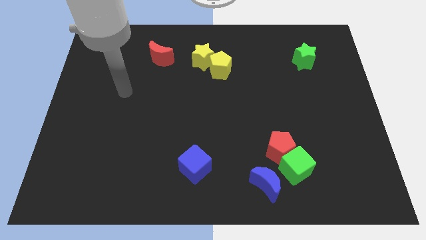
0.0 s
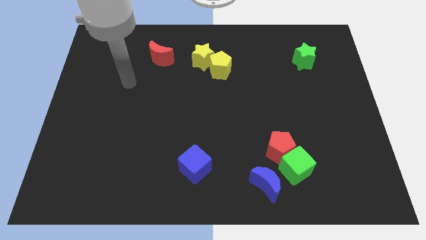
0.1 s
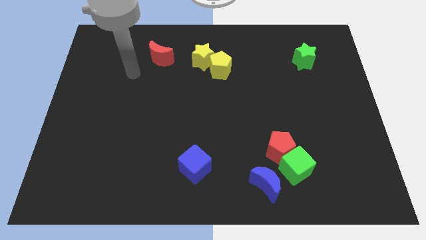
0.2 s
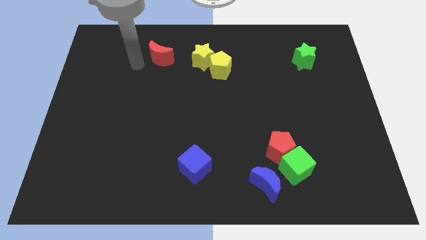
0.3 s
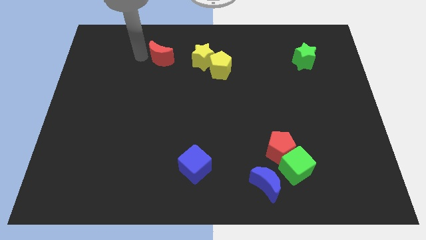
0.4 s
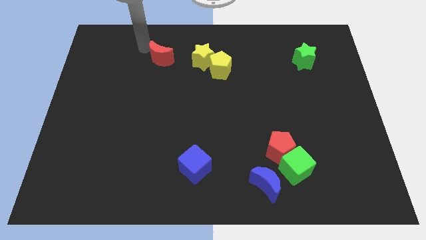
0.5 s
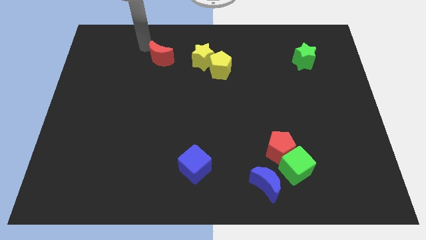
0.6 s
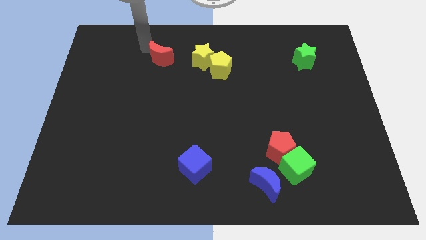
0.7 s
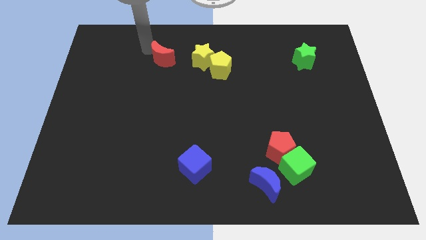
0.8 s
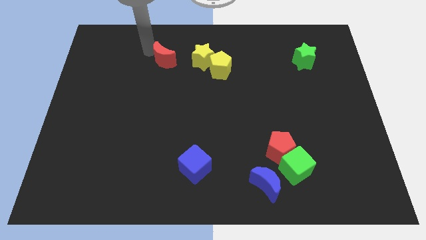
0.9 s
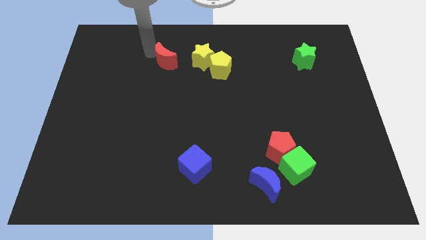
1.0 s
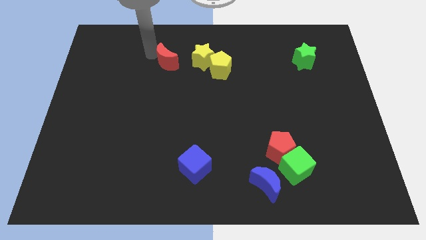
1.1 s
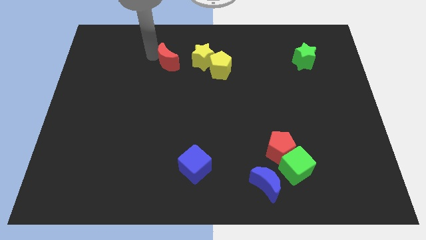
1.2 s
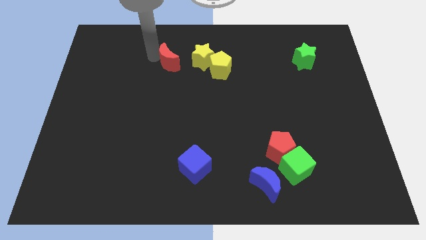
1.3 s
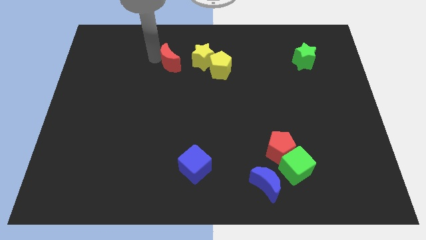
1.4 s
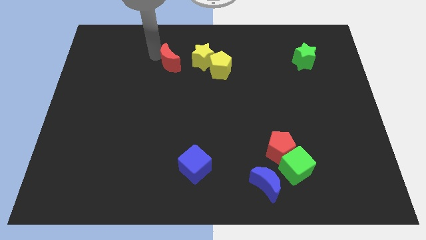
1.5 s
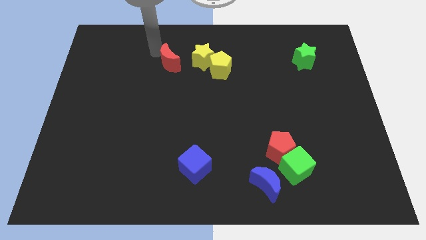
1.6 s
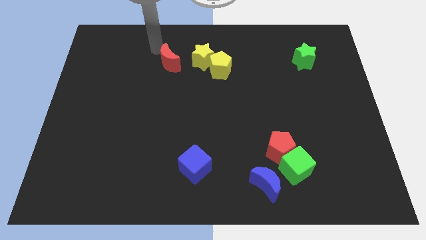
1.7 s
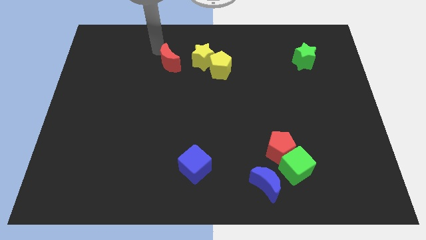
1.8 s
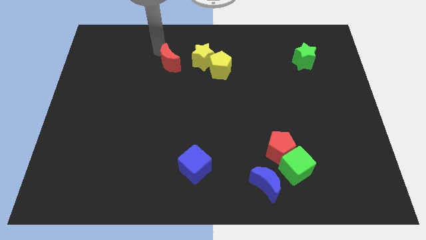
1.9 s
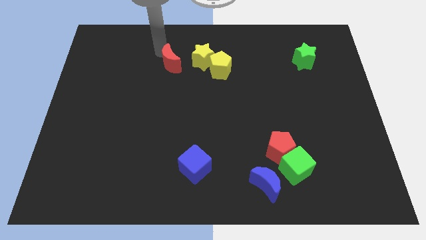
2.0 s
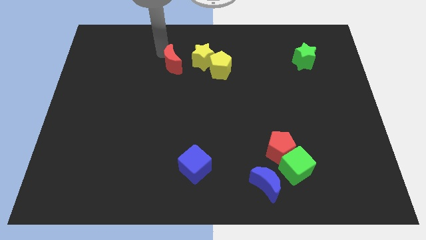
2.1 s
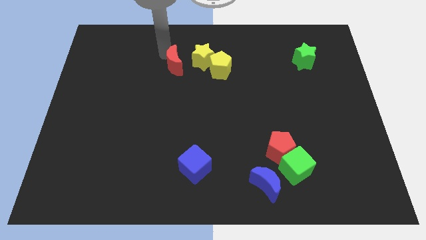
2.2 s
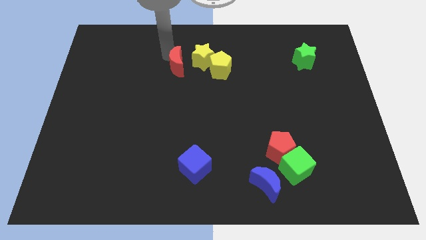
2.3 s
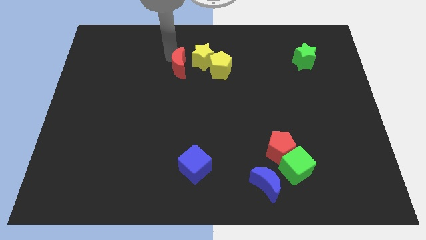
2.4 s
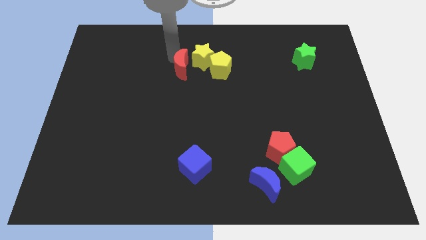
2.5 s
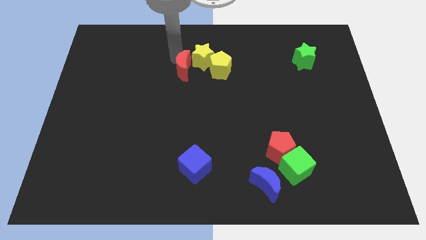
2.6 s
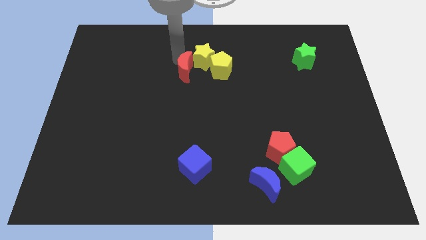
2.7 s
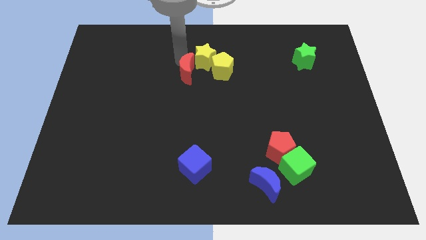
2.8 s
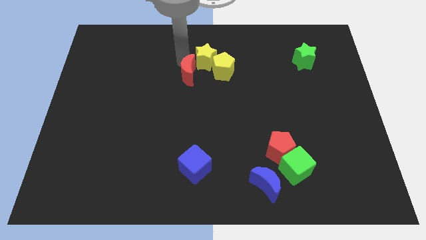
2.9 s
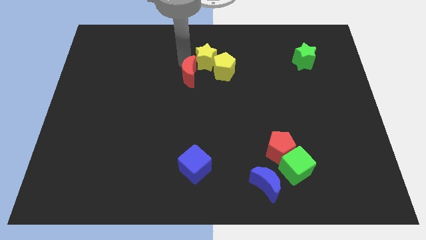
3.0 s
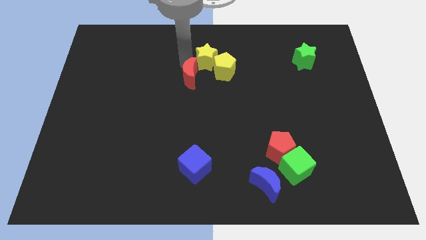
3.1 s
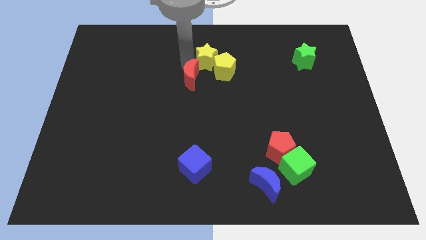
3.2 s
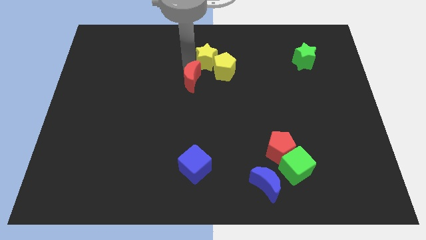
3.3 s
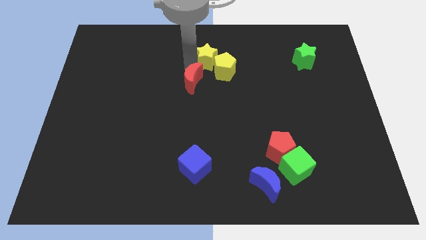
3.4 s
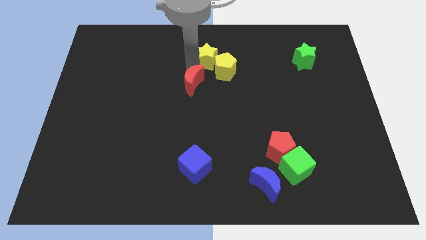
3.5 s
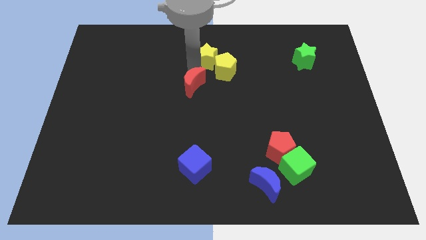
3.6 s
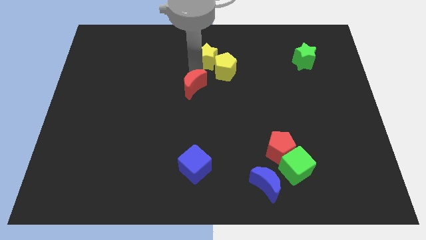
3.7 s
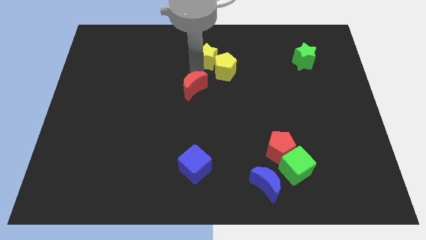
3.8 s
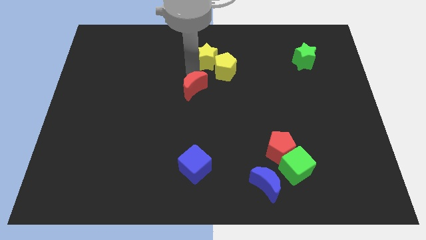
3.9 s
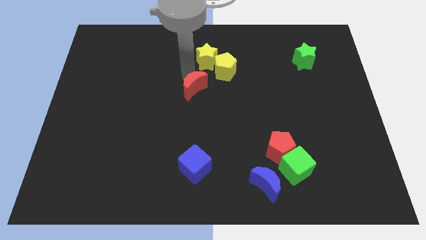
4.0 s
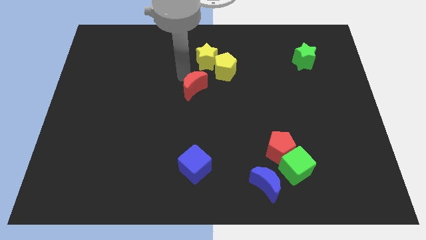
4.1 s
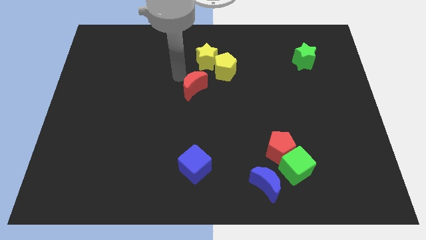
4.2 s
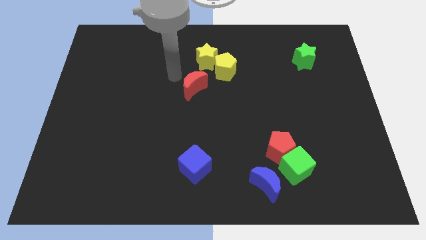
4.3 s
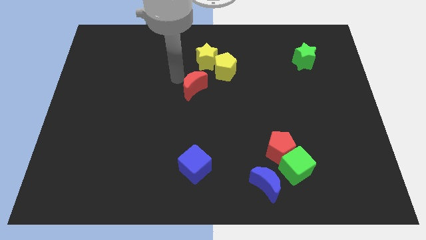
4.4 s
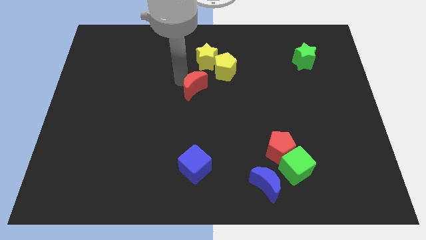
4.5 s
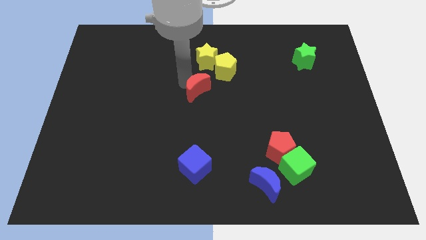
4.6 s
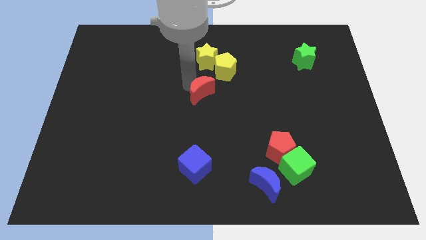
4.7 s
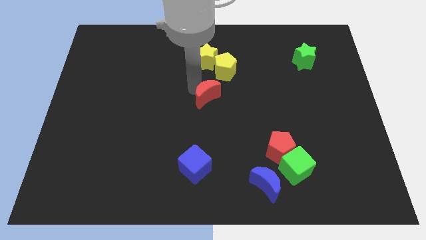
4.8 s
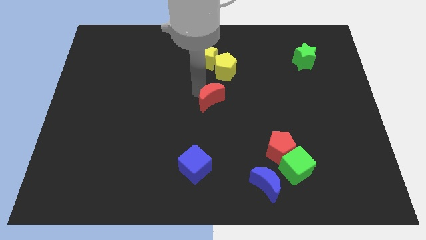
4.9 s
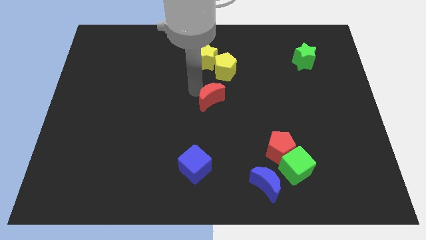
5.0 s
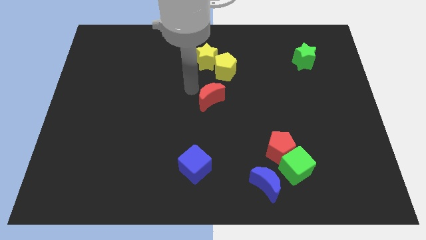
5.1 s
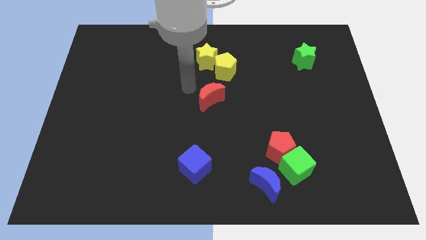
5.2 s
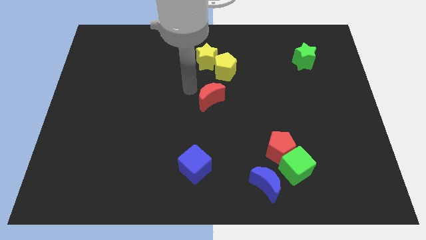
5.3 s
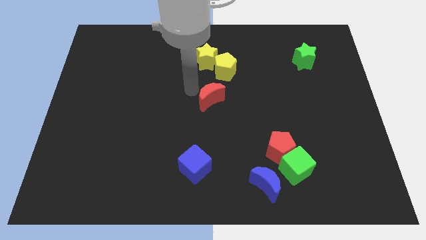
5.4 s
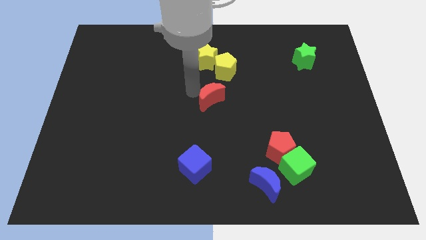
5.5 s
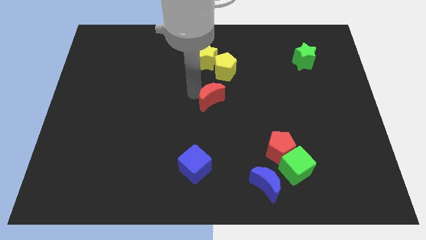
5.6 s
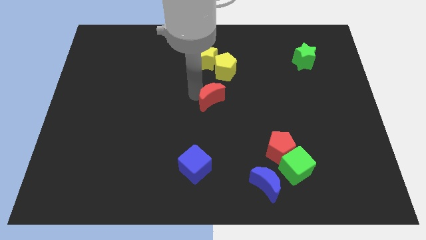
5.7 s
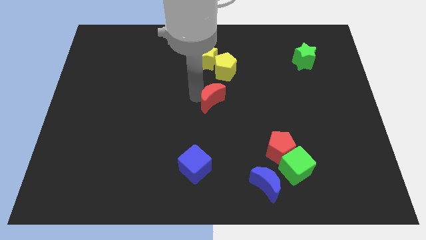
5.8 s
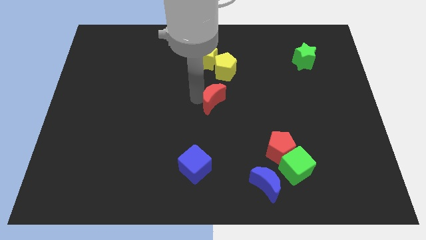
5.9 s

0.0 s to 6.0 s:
move the red moon downwards and right diagonally

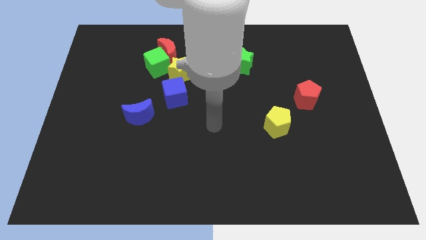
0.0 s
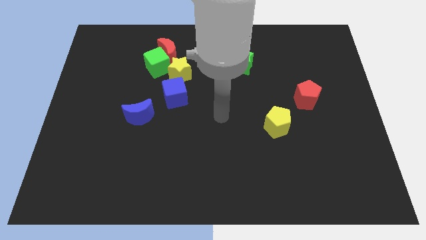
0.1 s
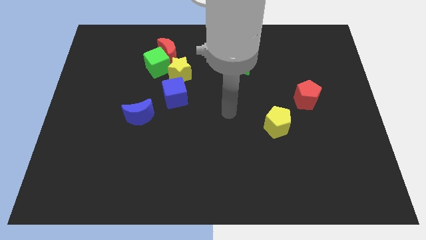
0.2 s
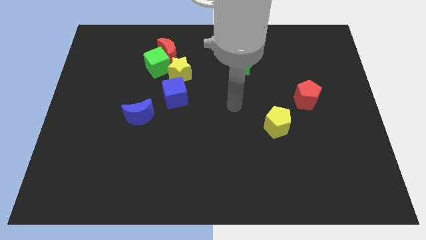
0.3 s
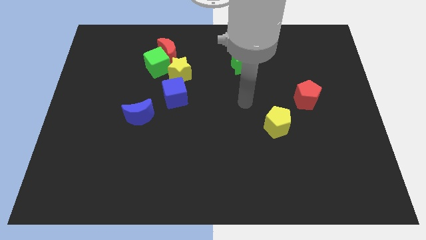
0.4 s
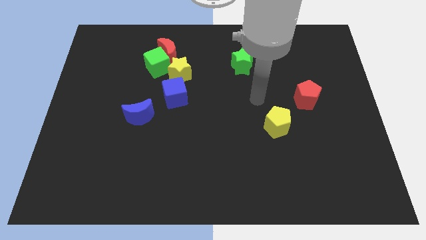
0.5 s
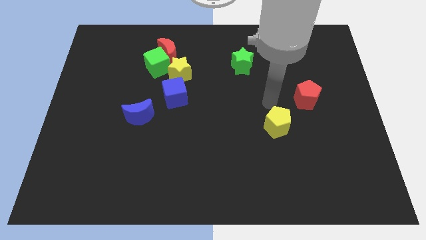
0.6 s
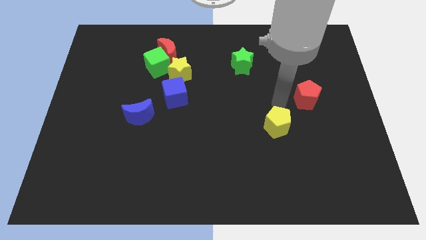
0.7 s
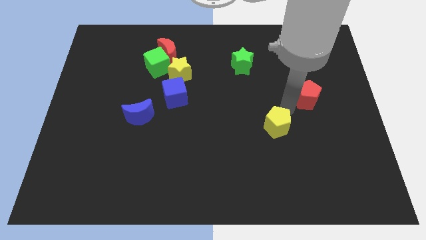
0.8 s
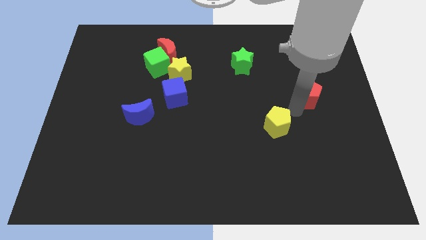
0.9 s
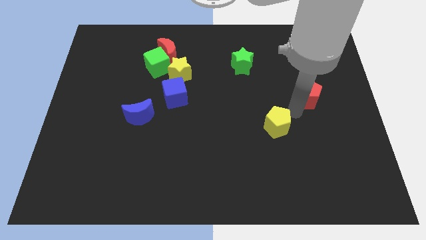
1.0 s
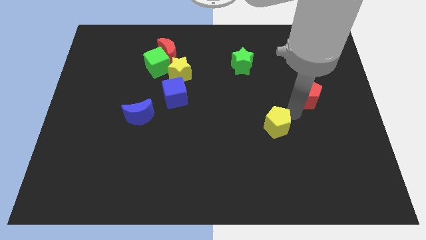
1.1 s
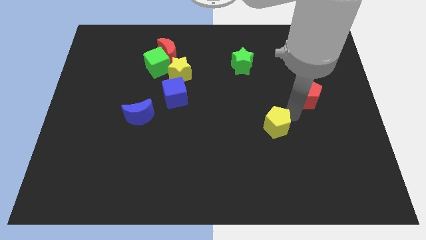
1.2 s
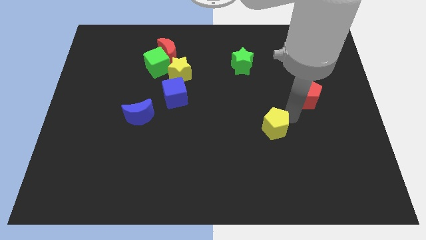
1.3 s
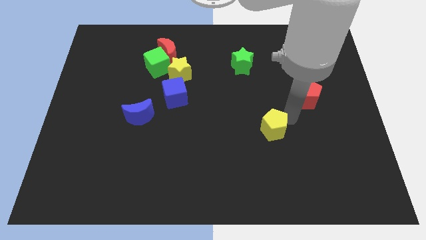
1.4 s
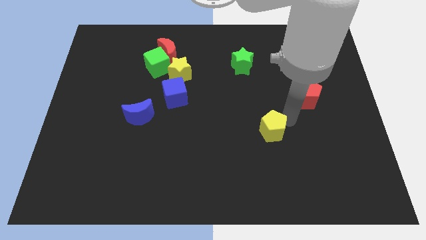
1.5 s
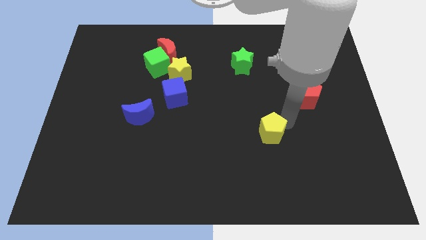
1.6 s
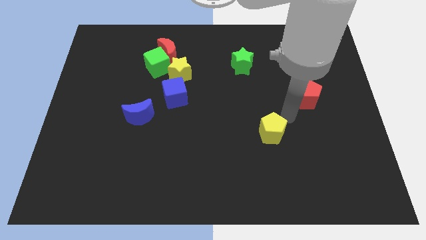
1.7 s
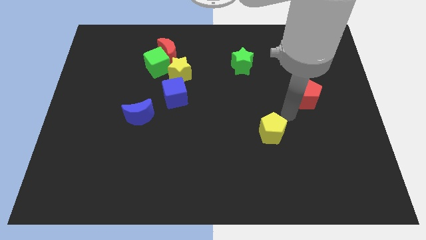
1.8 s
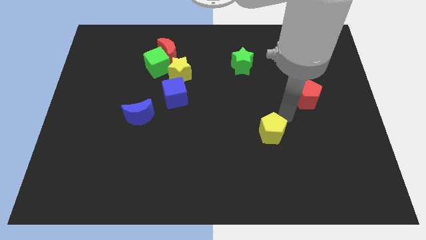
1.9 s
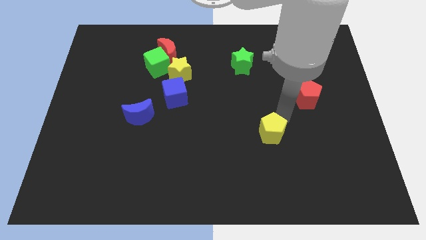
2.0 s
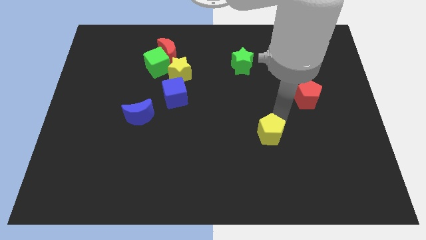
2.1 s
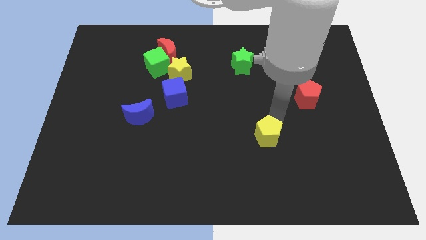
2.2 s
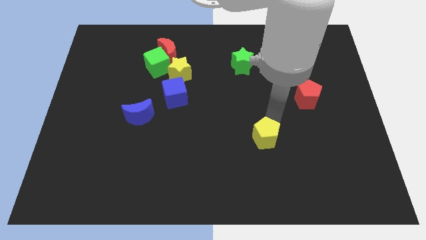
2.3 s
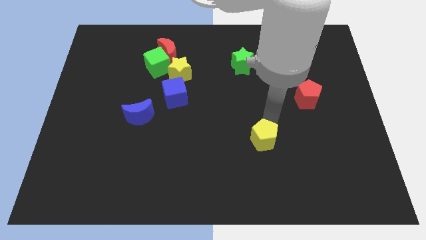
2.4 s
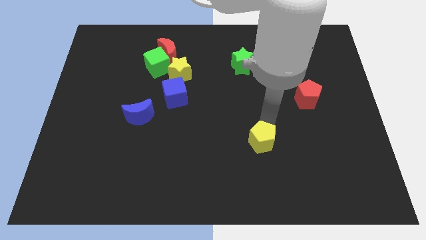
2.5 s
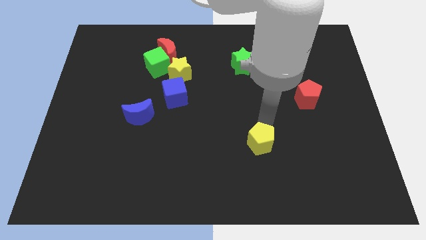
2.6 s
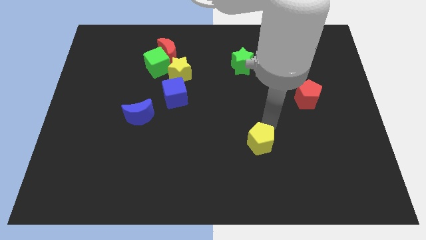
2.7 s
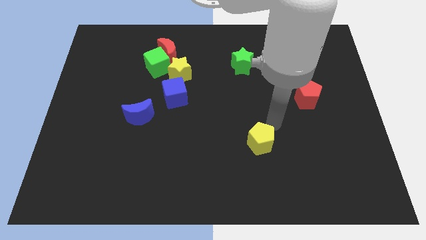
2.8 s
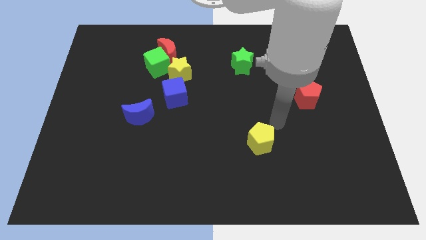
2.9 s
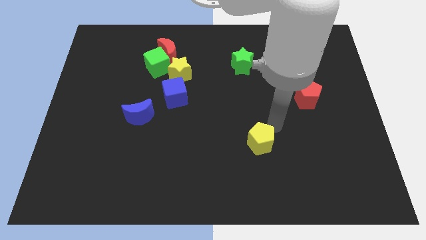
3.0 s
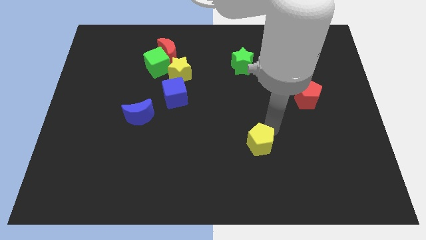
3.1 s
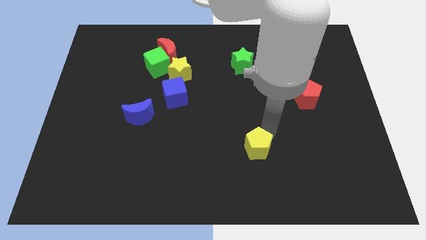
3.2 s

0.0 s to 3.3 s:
move the yellow pentagon somewhat downwards and to the left
